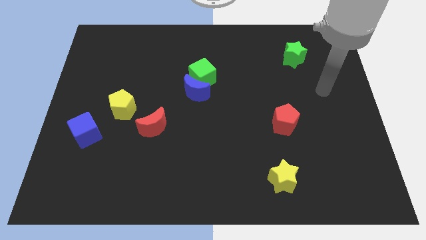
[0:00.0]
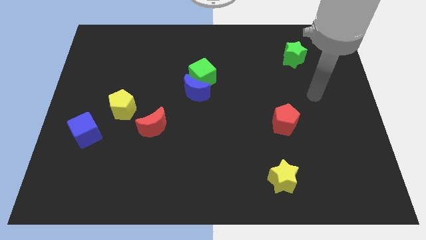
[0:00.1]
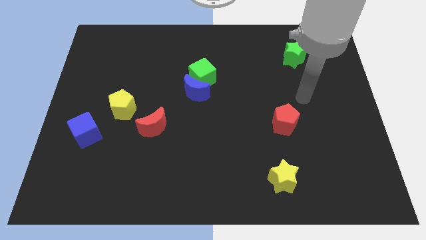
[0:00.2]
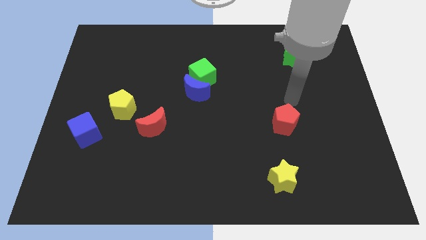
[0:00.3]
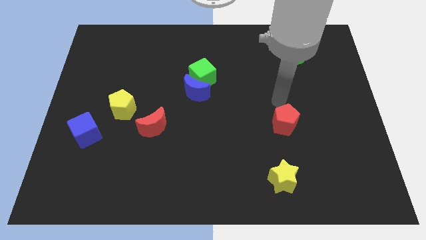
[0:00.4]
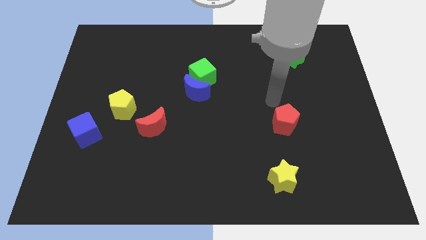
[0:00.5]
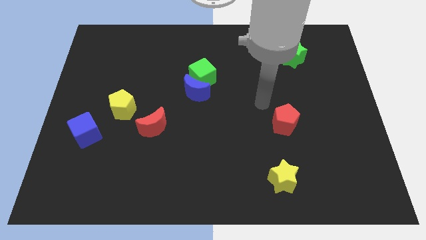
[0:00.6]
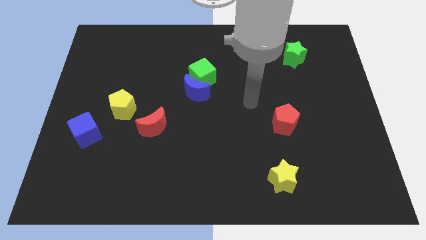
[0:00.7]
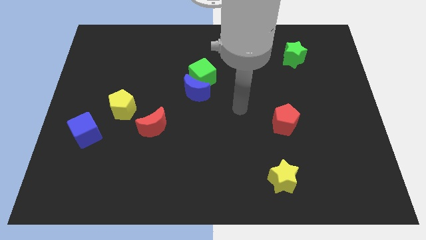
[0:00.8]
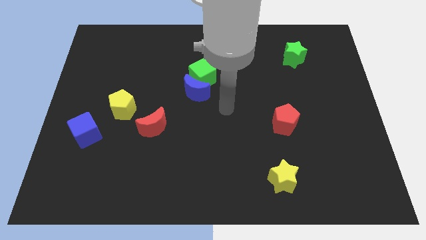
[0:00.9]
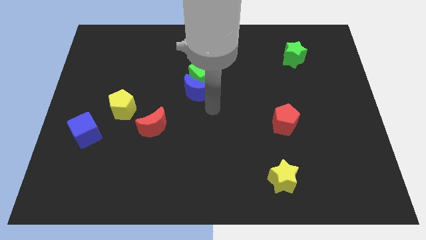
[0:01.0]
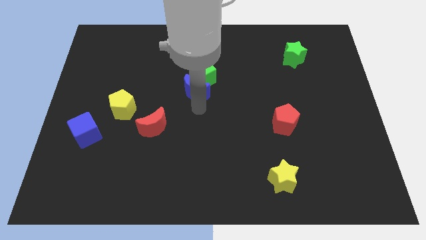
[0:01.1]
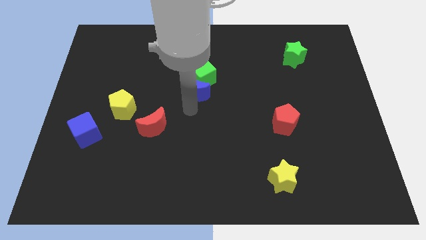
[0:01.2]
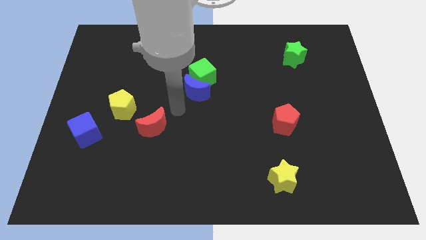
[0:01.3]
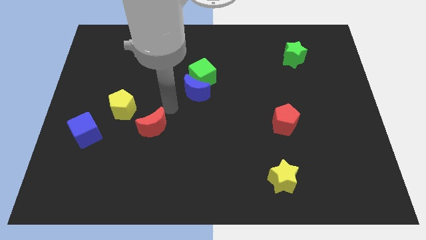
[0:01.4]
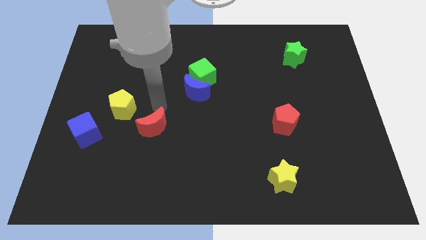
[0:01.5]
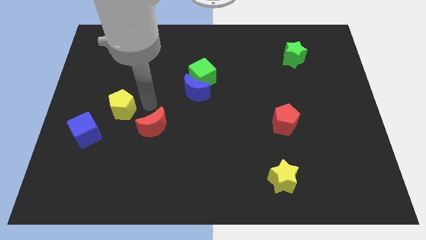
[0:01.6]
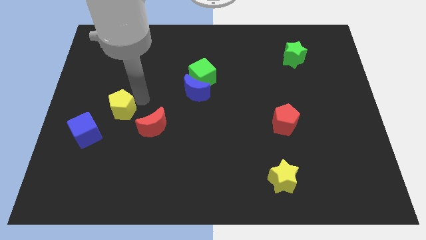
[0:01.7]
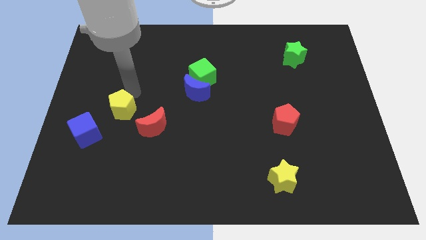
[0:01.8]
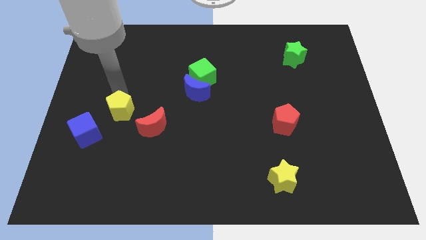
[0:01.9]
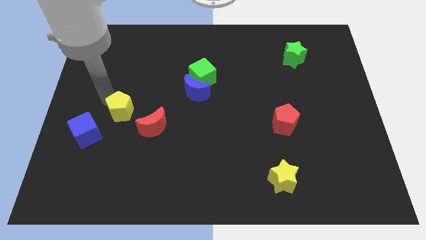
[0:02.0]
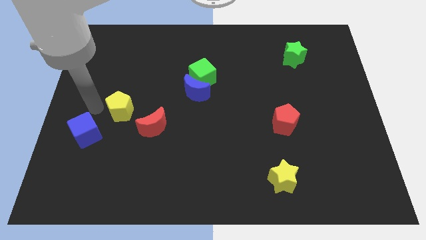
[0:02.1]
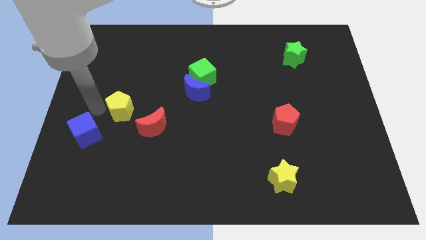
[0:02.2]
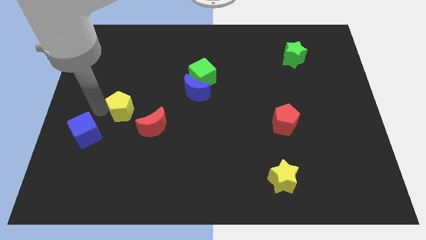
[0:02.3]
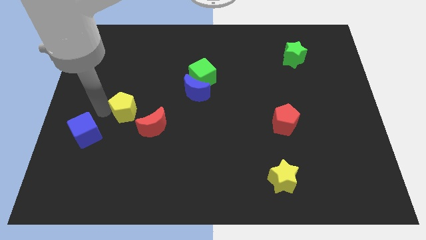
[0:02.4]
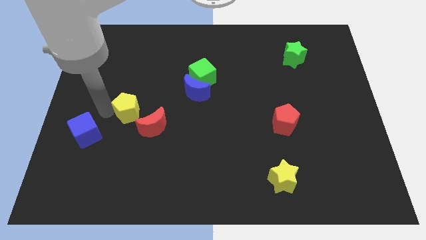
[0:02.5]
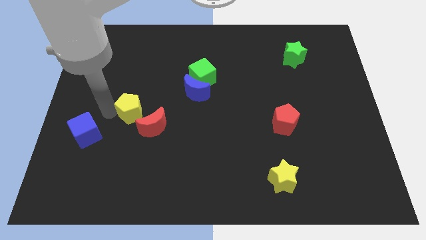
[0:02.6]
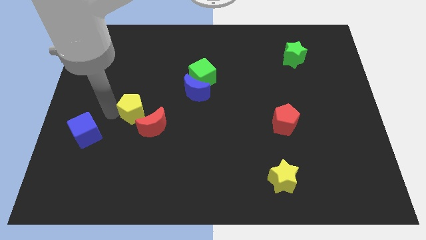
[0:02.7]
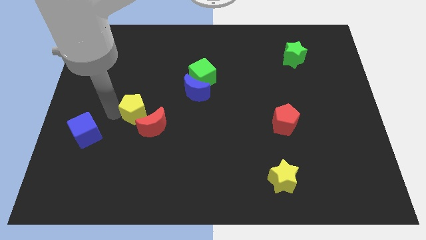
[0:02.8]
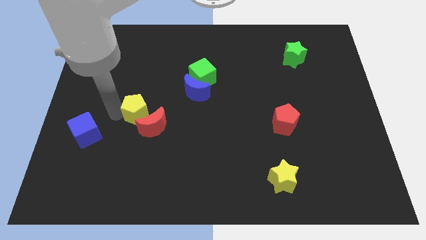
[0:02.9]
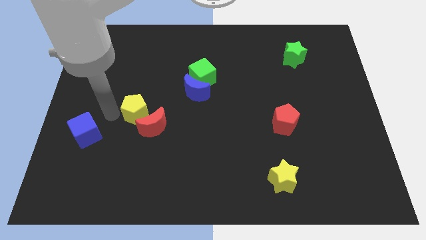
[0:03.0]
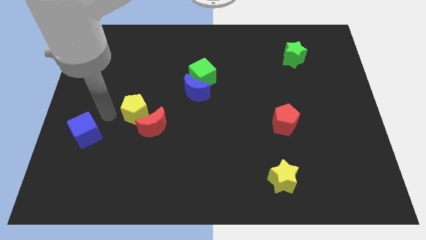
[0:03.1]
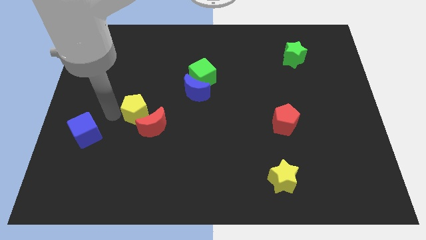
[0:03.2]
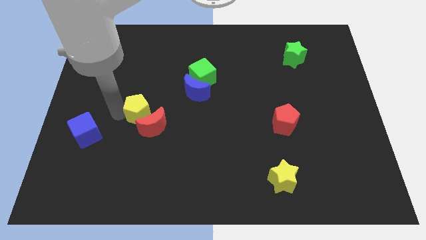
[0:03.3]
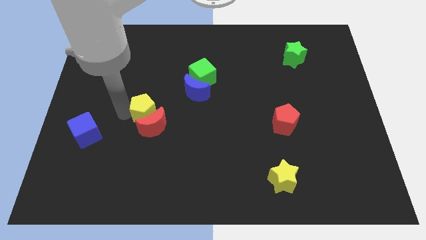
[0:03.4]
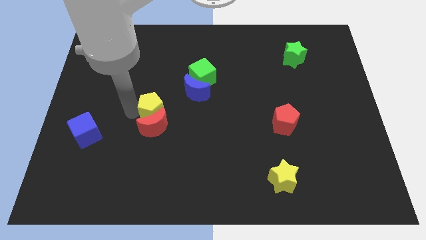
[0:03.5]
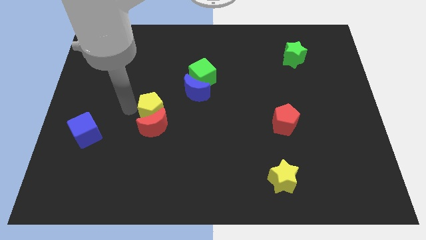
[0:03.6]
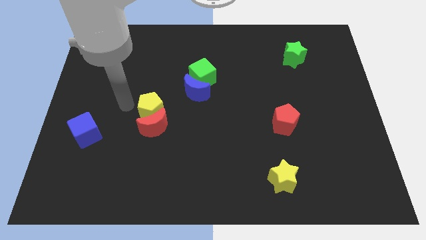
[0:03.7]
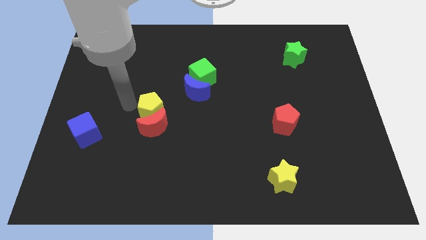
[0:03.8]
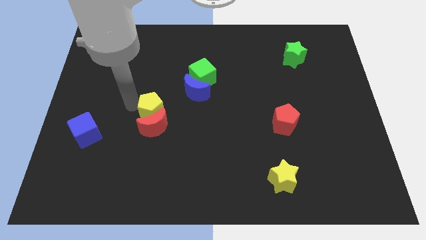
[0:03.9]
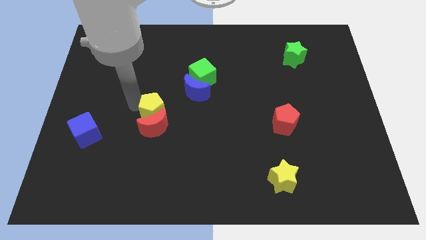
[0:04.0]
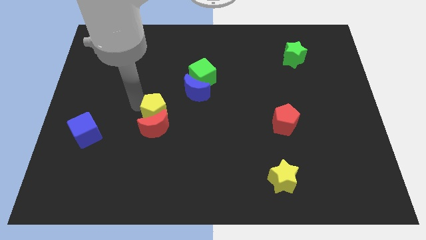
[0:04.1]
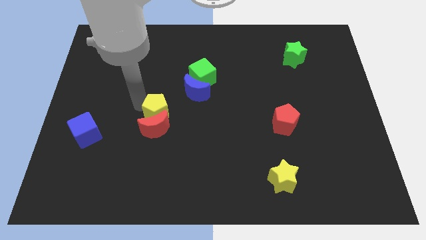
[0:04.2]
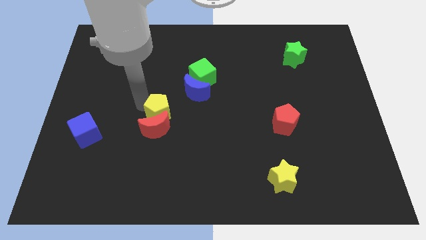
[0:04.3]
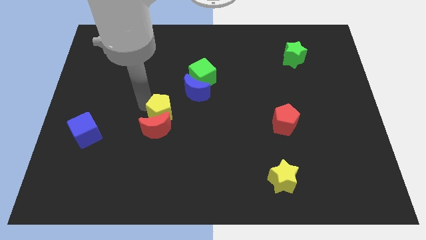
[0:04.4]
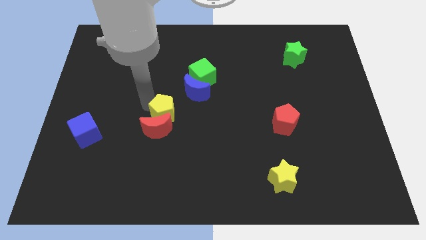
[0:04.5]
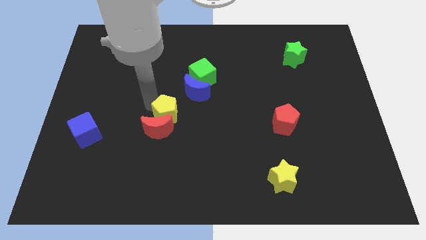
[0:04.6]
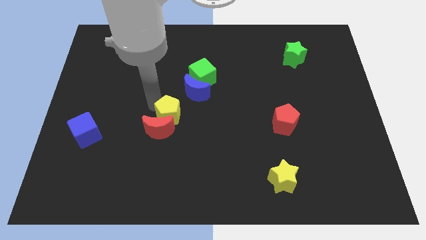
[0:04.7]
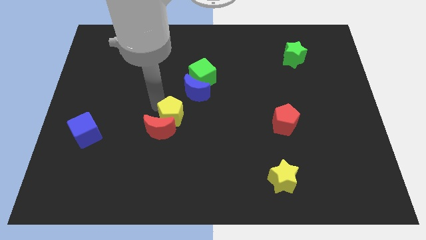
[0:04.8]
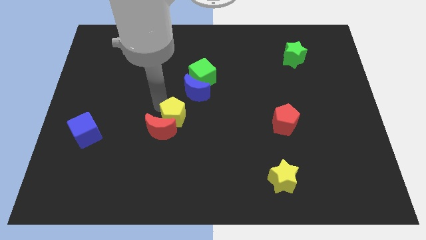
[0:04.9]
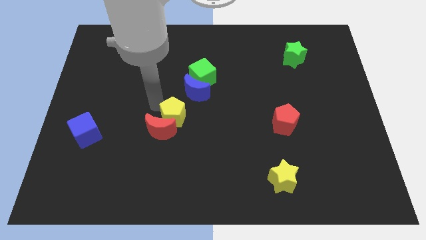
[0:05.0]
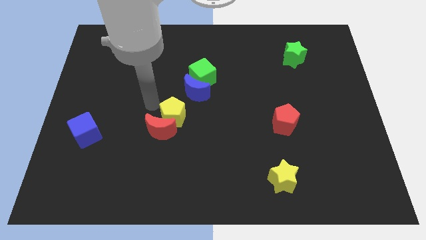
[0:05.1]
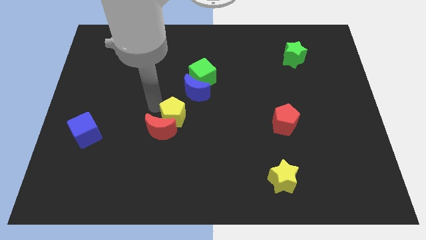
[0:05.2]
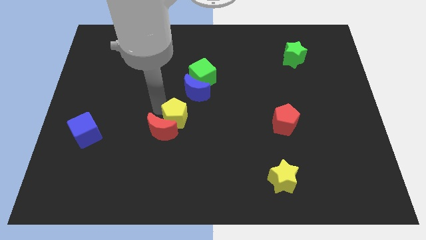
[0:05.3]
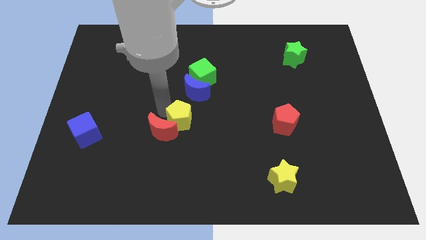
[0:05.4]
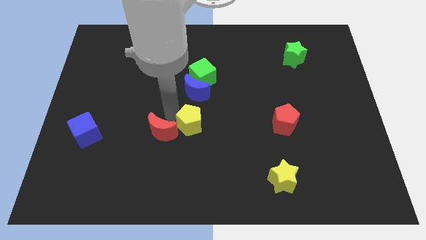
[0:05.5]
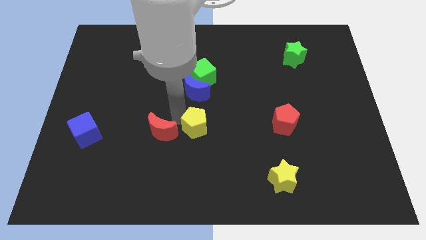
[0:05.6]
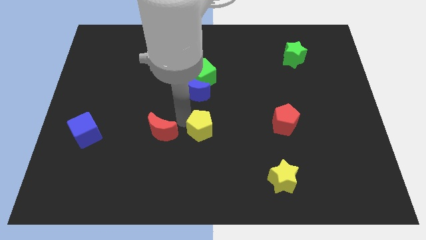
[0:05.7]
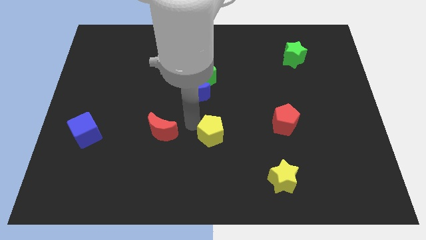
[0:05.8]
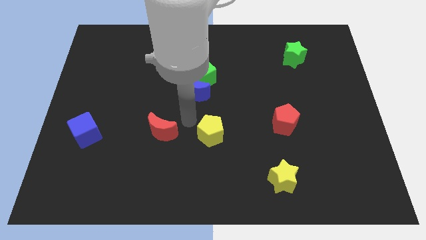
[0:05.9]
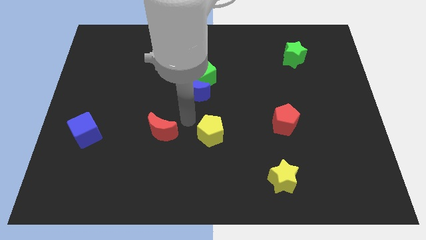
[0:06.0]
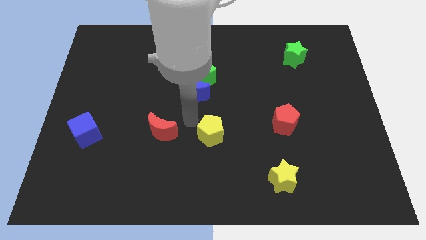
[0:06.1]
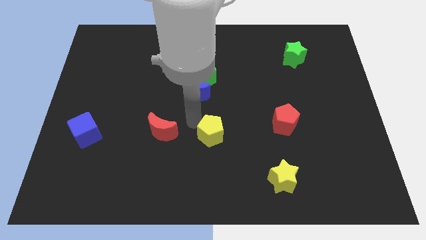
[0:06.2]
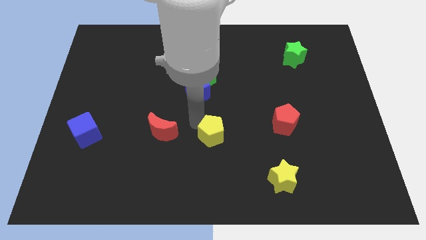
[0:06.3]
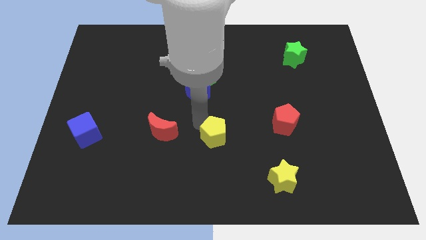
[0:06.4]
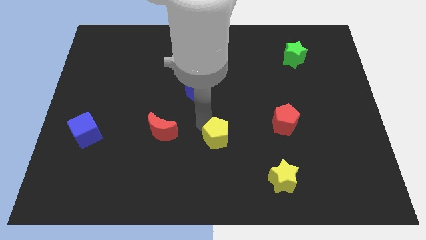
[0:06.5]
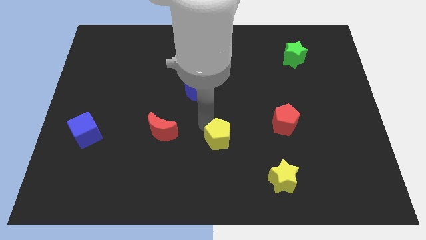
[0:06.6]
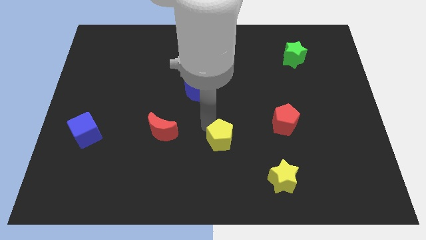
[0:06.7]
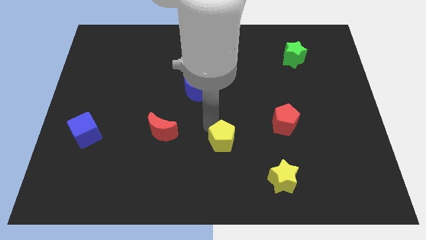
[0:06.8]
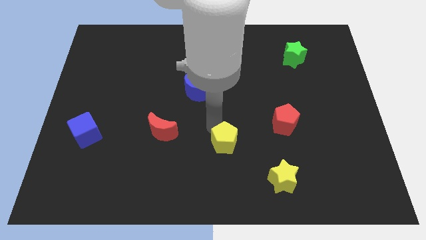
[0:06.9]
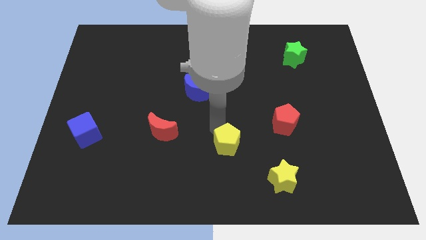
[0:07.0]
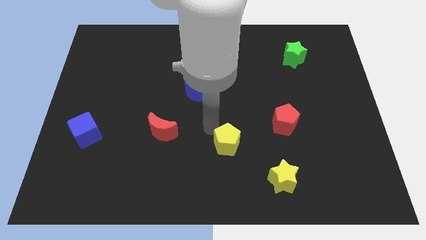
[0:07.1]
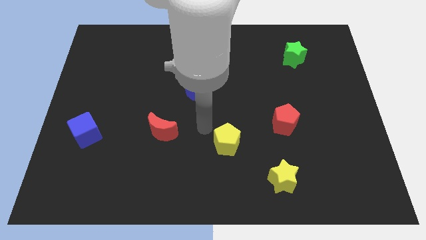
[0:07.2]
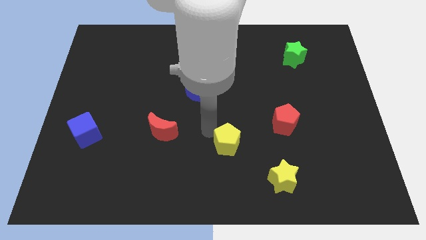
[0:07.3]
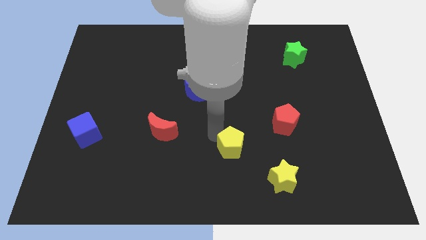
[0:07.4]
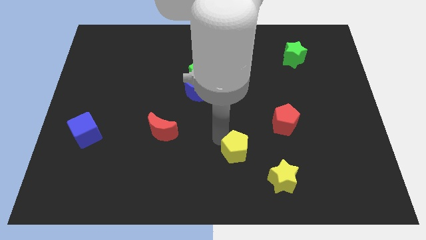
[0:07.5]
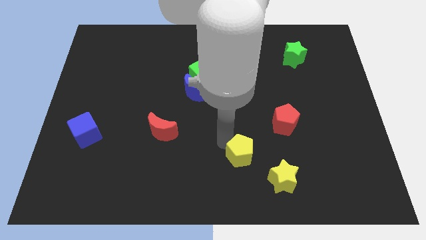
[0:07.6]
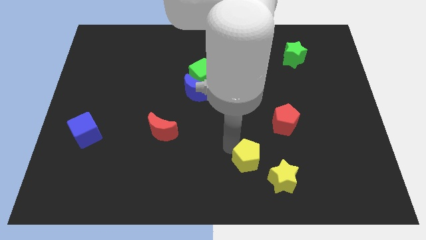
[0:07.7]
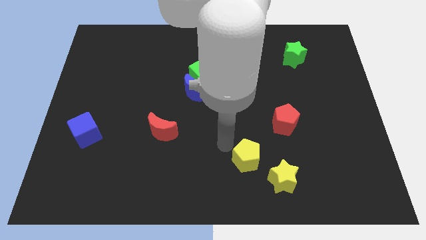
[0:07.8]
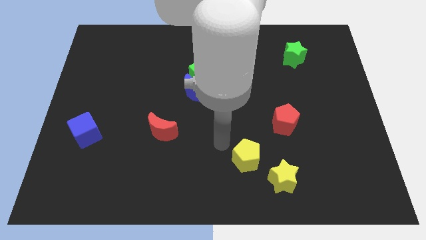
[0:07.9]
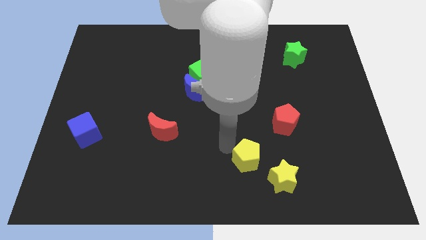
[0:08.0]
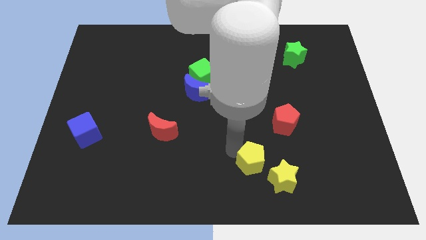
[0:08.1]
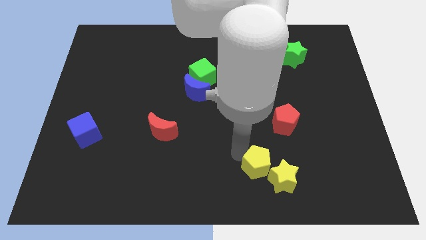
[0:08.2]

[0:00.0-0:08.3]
move the yellow pentagon towards the yellow star
